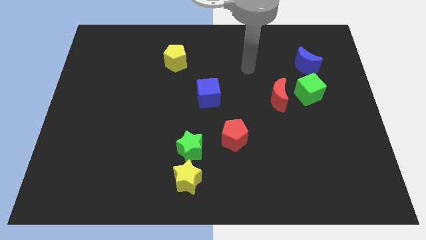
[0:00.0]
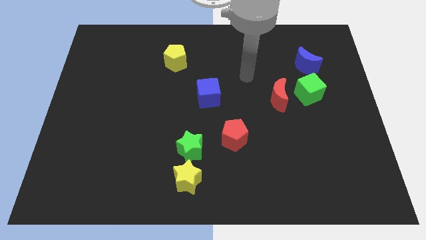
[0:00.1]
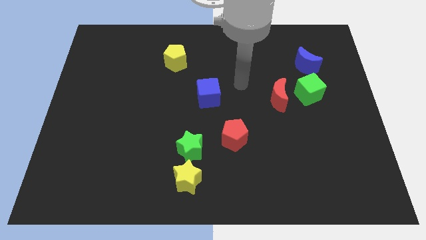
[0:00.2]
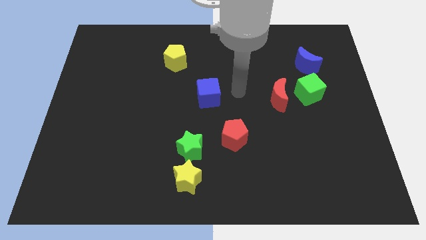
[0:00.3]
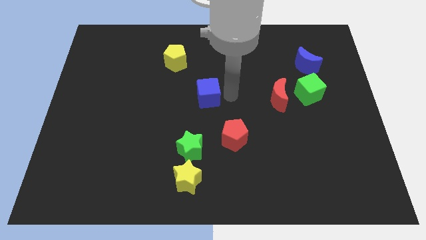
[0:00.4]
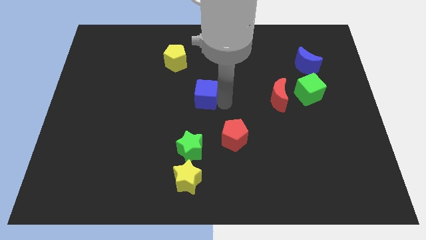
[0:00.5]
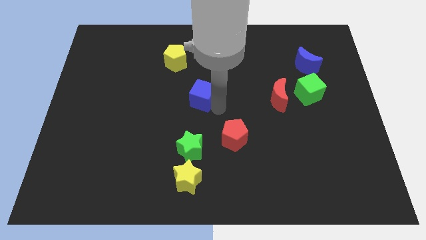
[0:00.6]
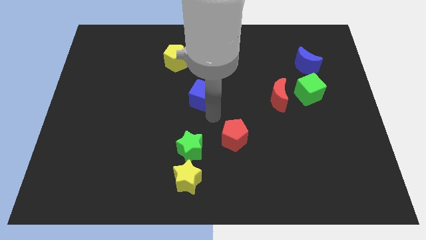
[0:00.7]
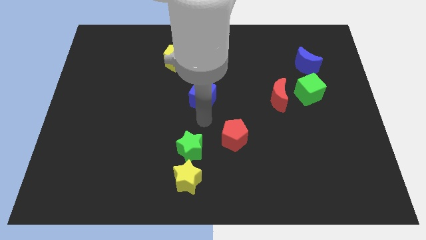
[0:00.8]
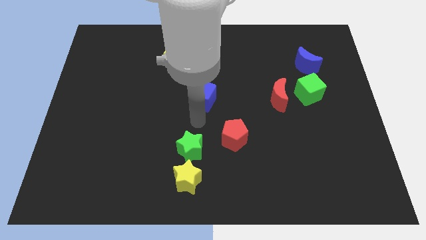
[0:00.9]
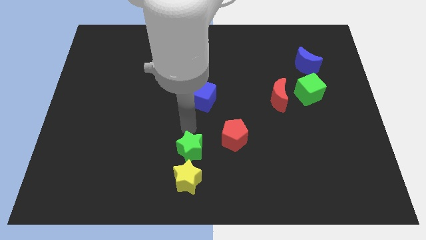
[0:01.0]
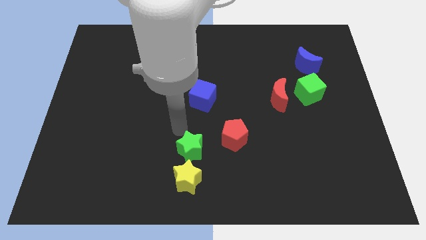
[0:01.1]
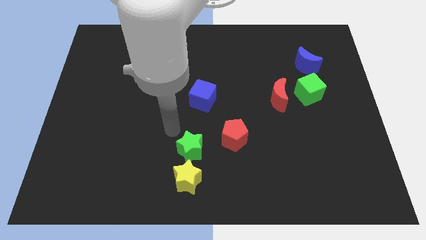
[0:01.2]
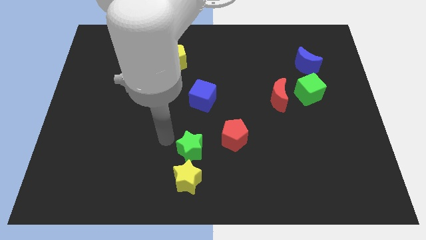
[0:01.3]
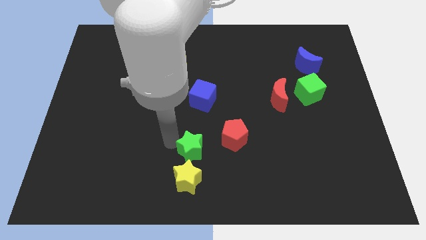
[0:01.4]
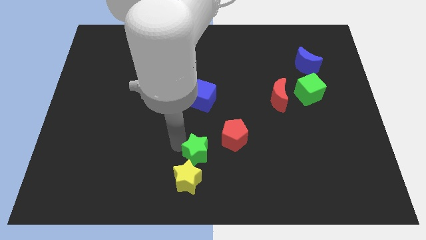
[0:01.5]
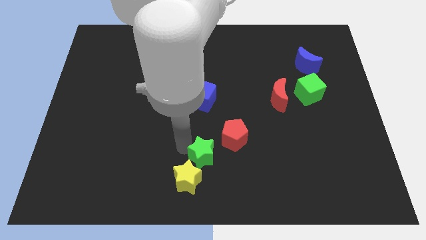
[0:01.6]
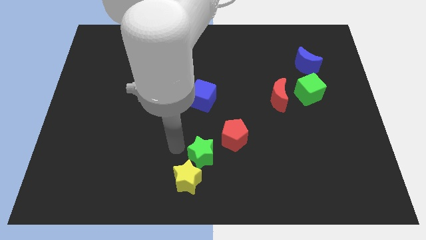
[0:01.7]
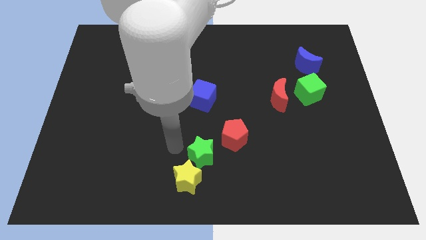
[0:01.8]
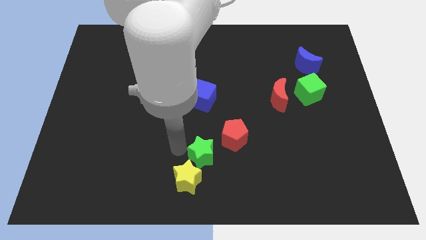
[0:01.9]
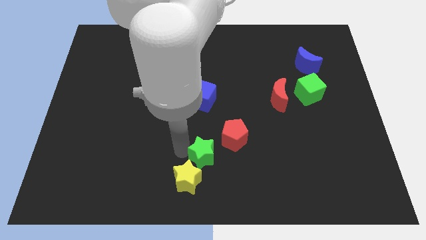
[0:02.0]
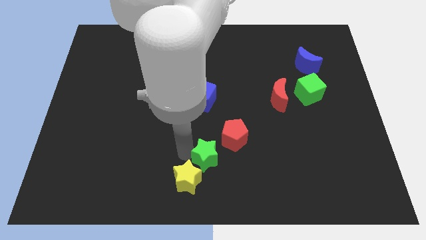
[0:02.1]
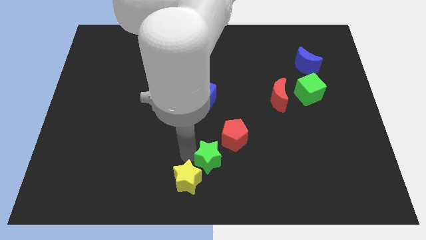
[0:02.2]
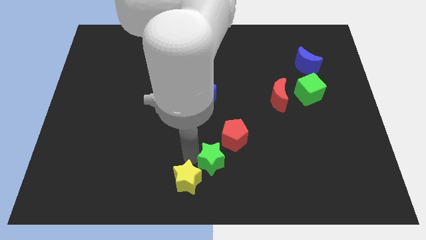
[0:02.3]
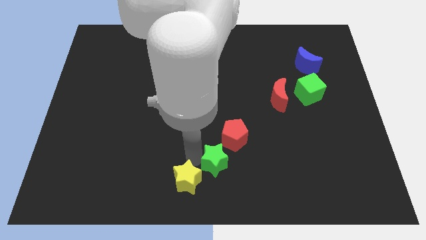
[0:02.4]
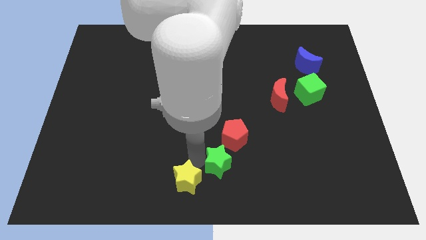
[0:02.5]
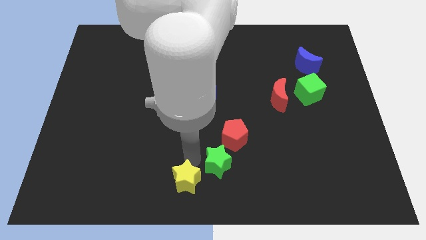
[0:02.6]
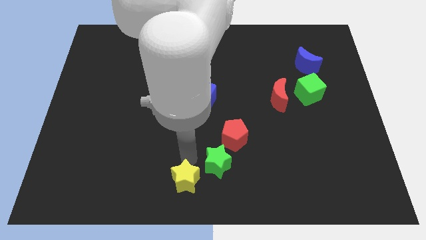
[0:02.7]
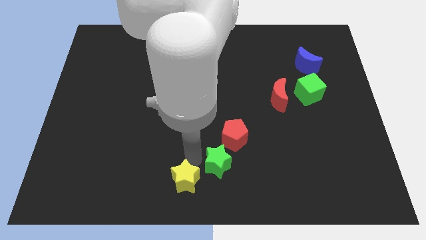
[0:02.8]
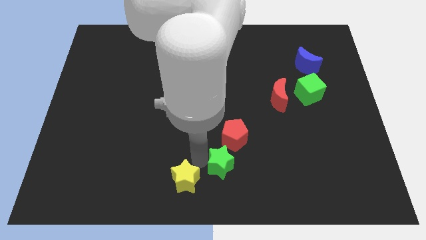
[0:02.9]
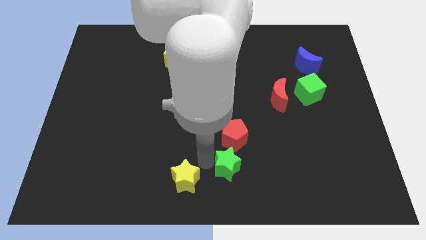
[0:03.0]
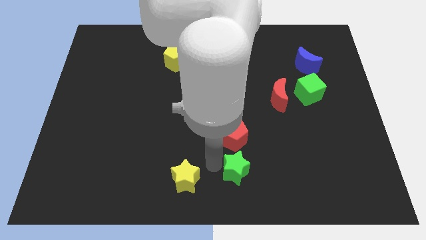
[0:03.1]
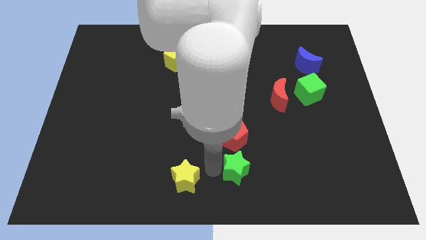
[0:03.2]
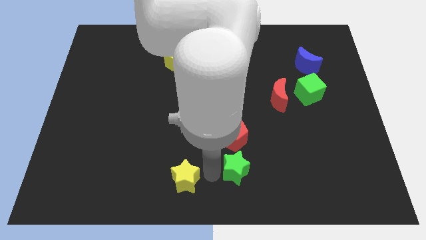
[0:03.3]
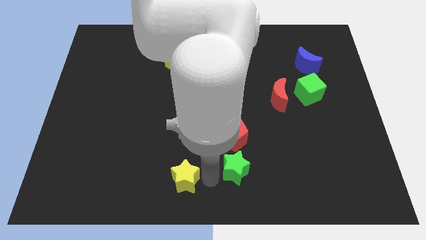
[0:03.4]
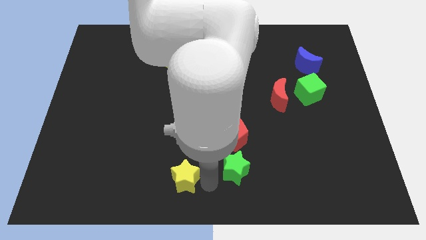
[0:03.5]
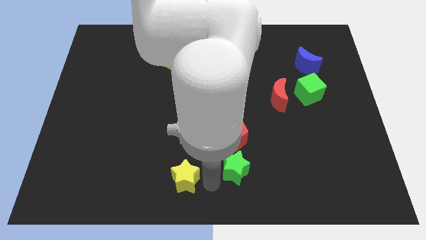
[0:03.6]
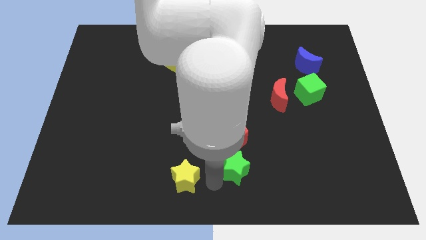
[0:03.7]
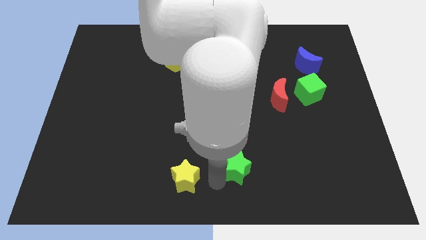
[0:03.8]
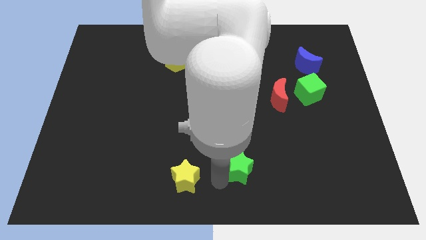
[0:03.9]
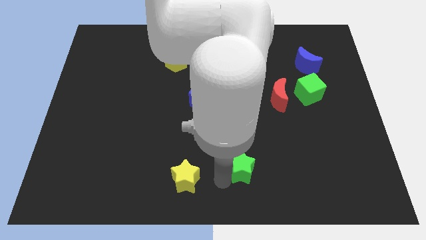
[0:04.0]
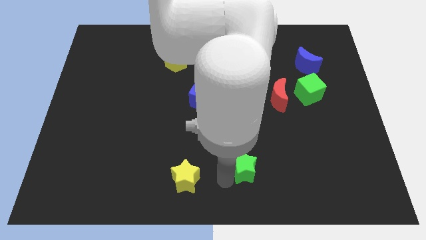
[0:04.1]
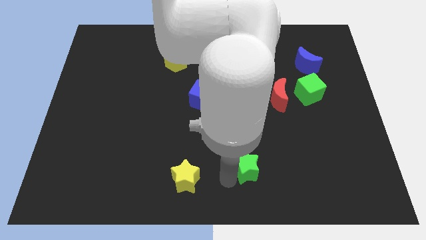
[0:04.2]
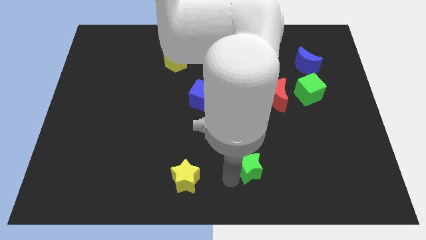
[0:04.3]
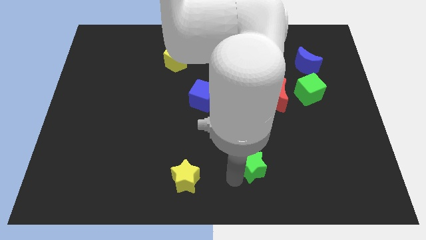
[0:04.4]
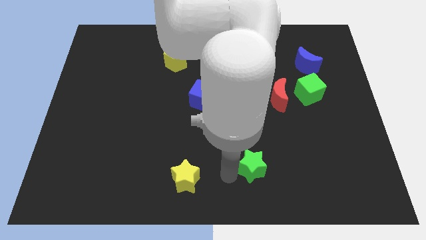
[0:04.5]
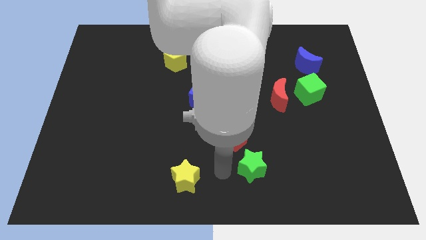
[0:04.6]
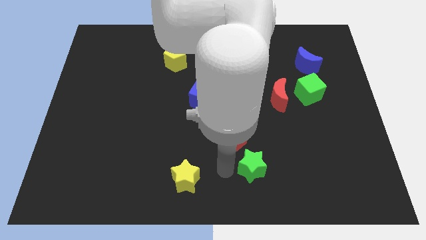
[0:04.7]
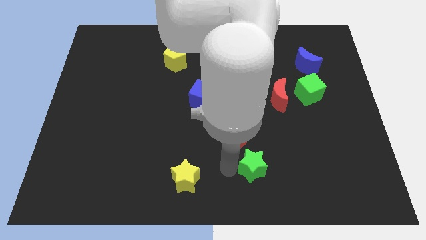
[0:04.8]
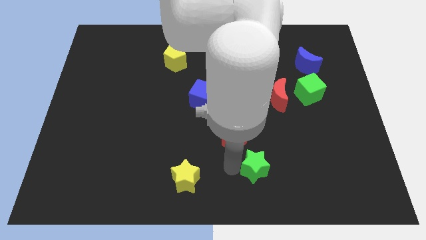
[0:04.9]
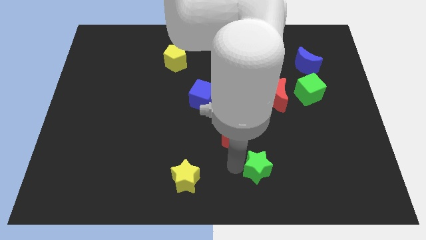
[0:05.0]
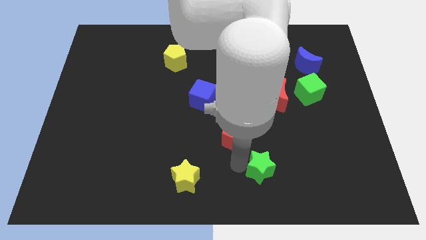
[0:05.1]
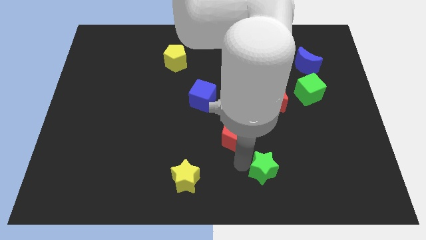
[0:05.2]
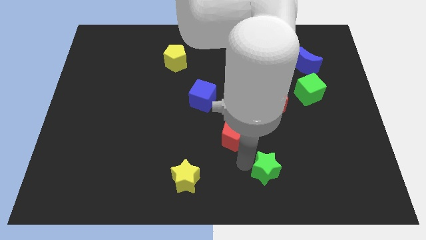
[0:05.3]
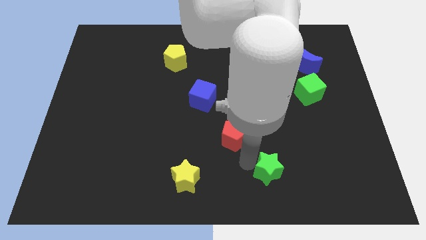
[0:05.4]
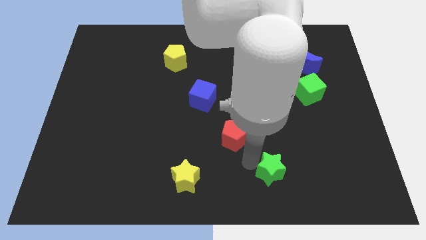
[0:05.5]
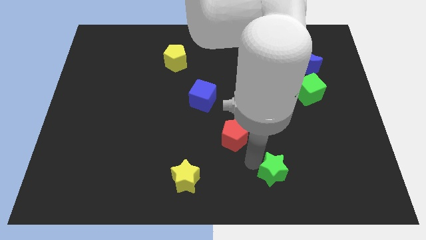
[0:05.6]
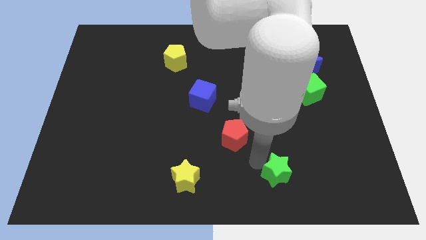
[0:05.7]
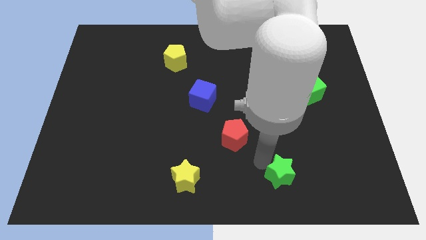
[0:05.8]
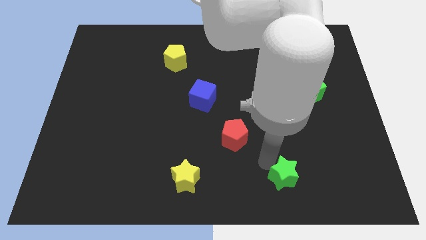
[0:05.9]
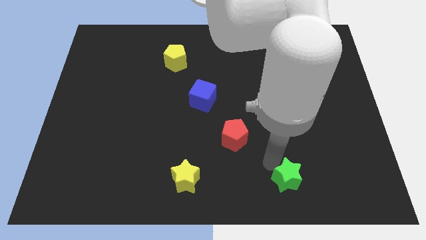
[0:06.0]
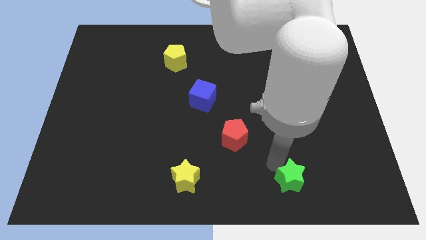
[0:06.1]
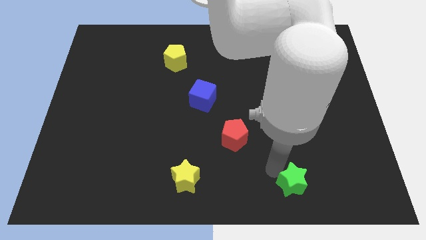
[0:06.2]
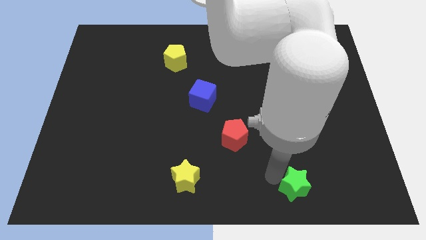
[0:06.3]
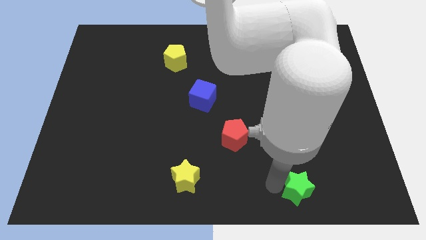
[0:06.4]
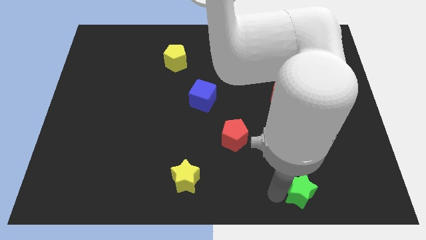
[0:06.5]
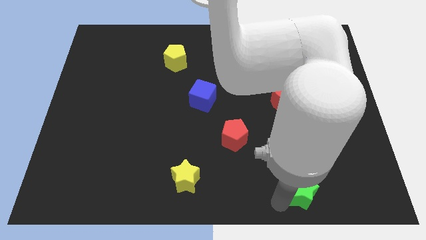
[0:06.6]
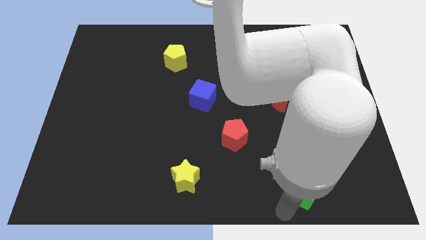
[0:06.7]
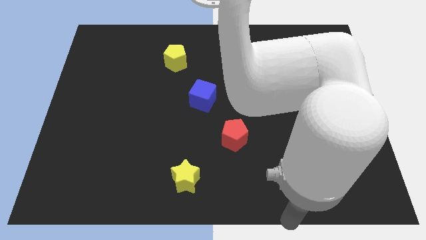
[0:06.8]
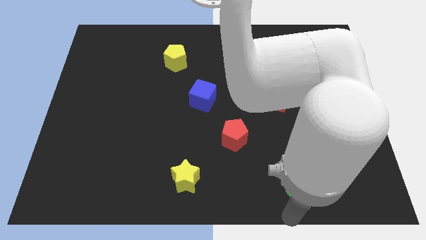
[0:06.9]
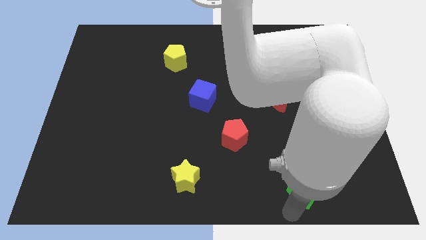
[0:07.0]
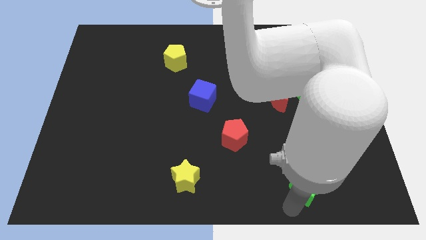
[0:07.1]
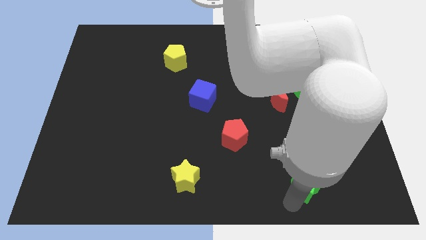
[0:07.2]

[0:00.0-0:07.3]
push the green star right

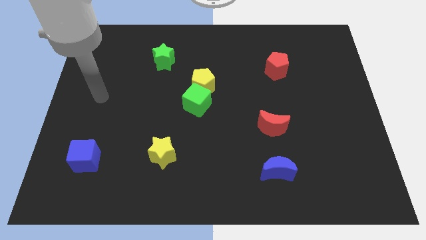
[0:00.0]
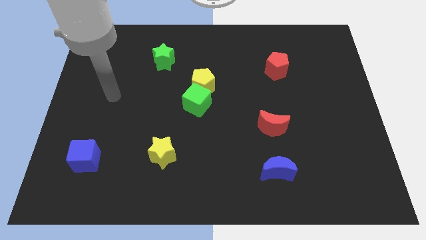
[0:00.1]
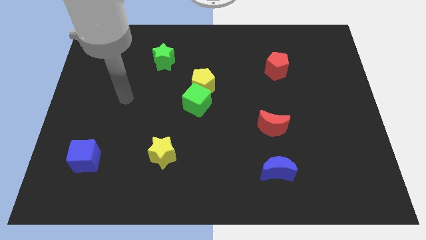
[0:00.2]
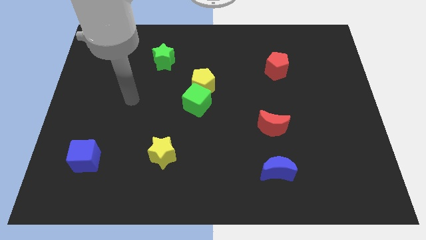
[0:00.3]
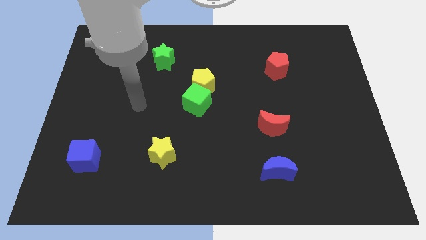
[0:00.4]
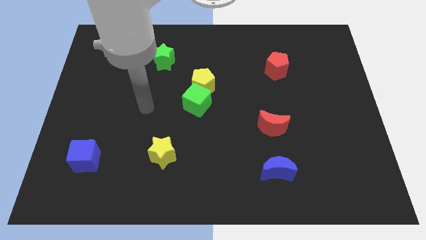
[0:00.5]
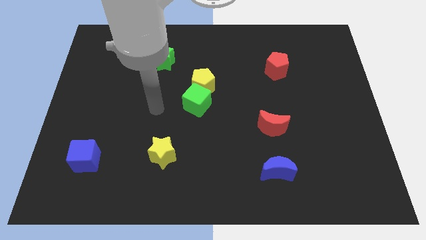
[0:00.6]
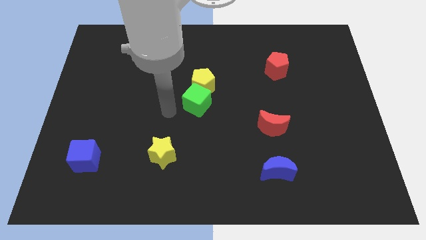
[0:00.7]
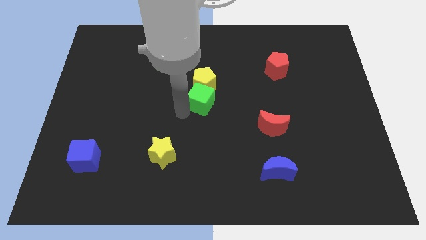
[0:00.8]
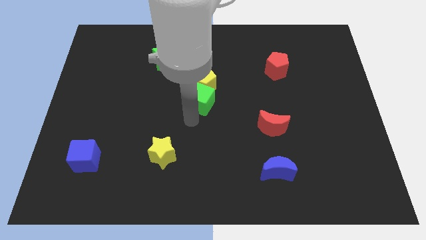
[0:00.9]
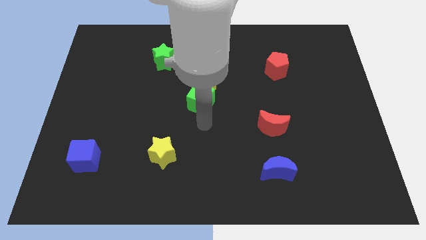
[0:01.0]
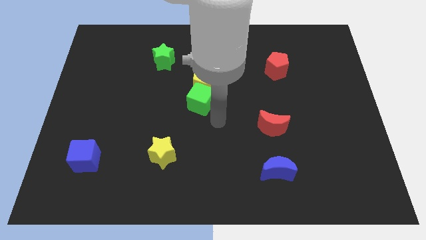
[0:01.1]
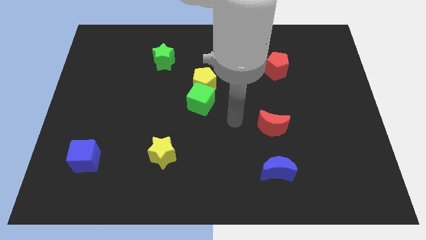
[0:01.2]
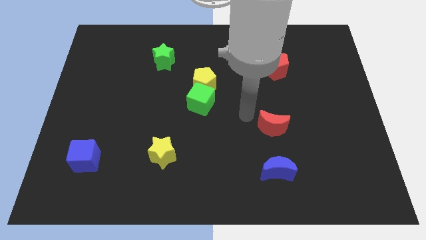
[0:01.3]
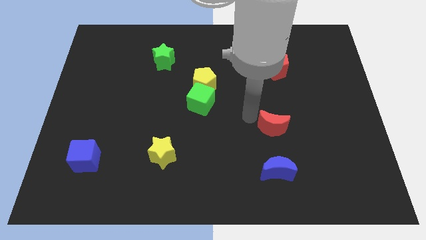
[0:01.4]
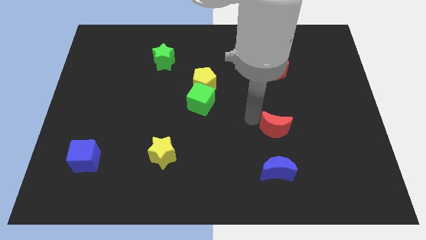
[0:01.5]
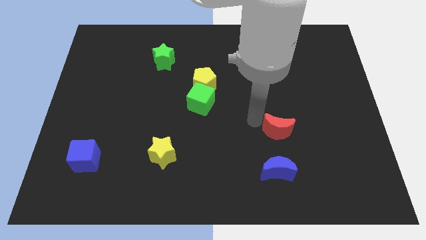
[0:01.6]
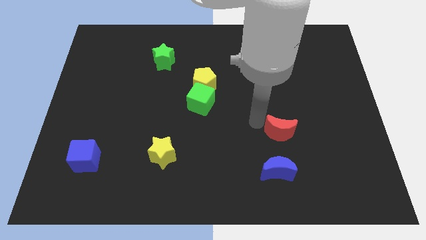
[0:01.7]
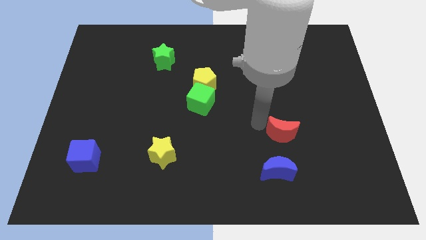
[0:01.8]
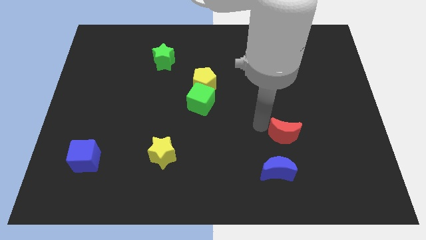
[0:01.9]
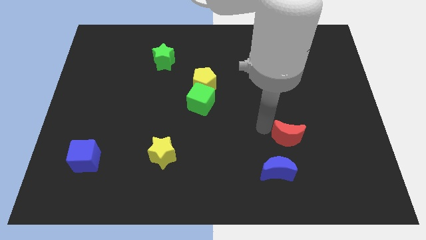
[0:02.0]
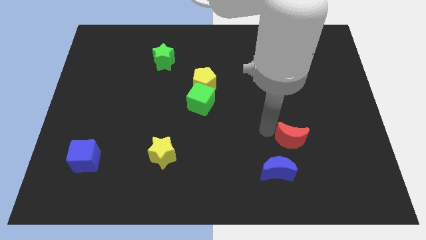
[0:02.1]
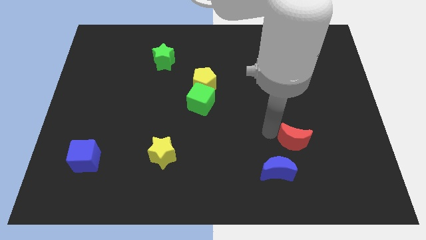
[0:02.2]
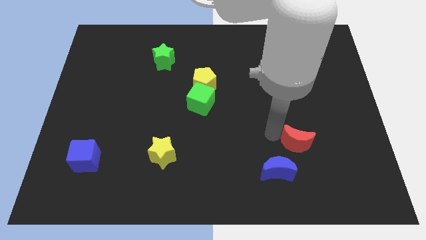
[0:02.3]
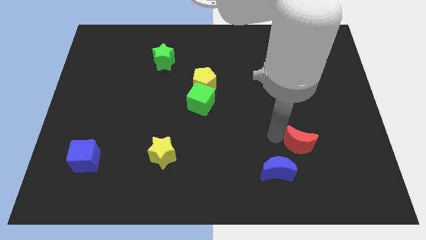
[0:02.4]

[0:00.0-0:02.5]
push the red moon somewhat downwards and to the right diagonally
